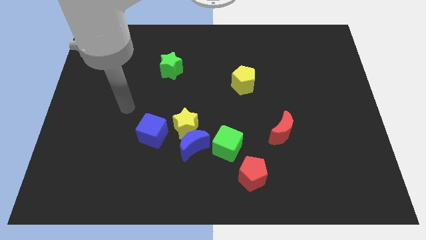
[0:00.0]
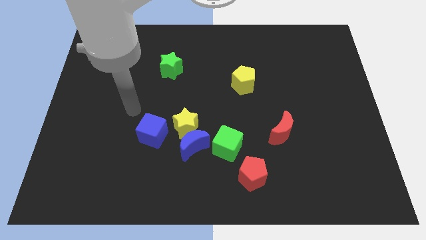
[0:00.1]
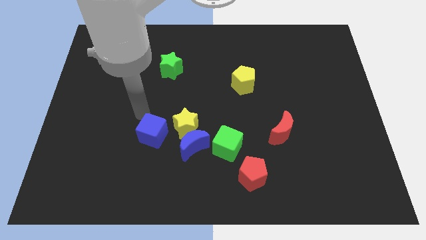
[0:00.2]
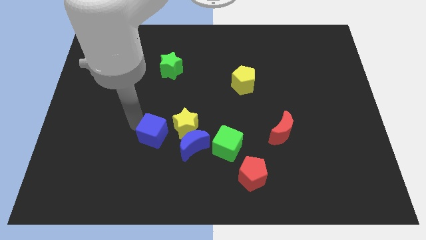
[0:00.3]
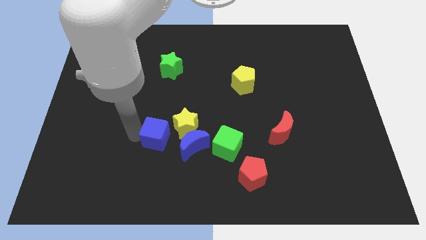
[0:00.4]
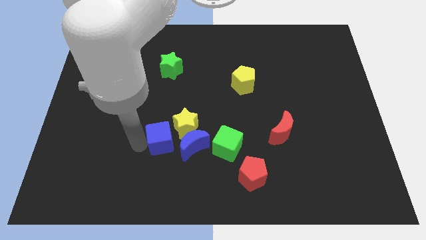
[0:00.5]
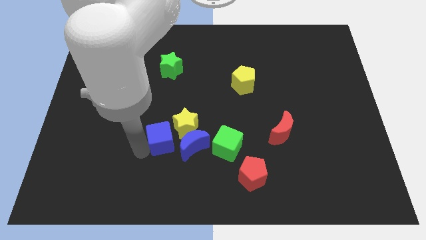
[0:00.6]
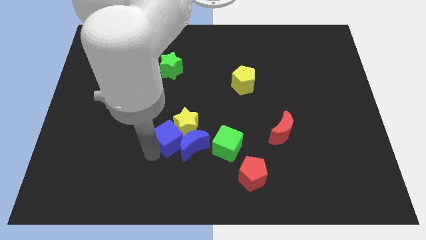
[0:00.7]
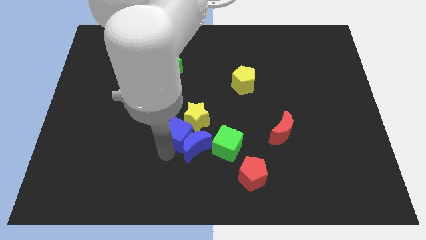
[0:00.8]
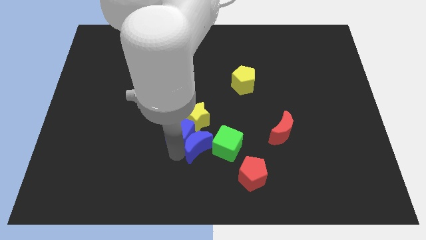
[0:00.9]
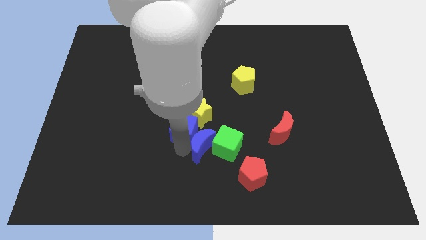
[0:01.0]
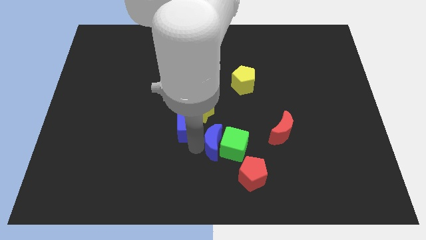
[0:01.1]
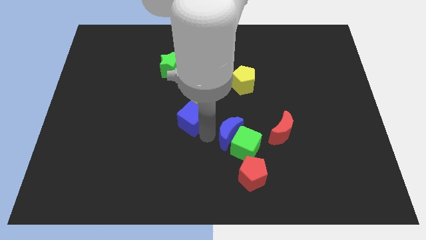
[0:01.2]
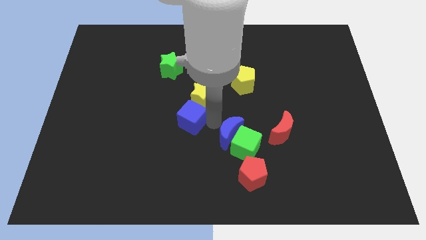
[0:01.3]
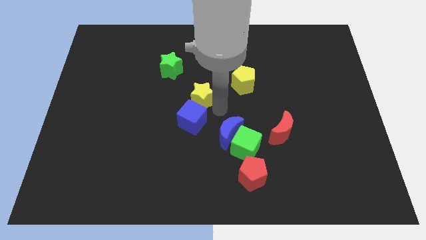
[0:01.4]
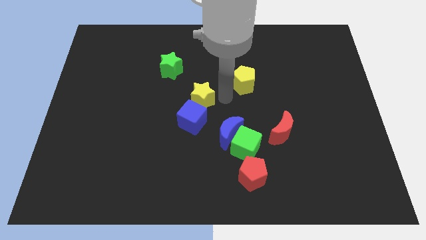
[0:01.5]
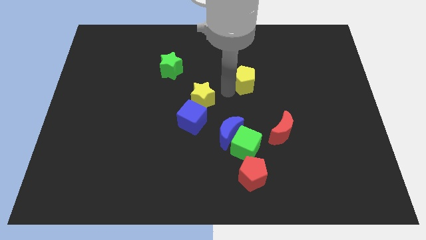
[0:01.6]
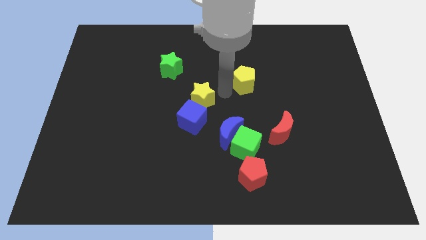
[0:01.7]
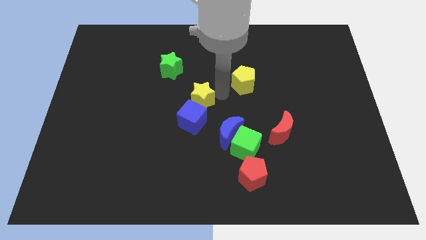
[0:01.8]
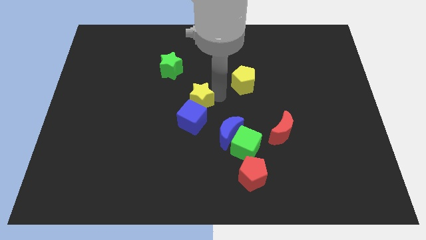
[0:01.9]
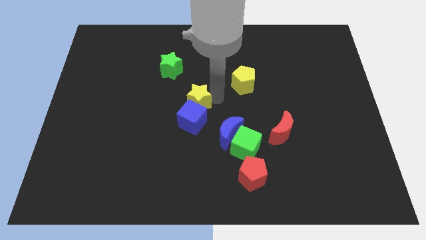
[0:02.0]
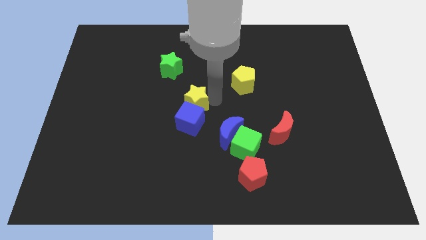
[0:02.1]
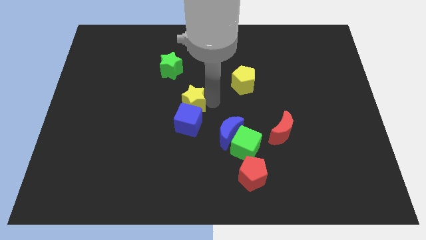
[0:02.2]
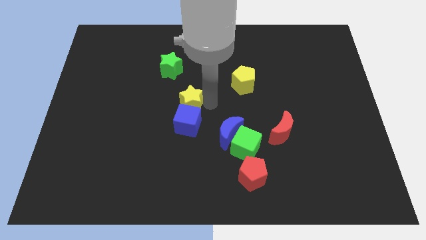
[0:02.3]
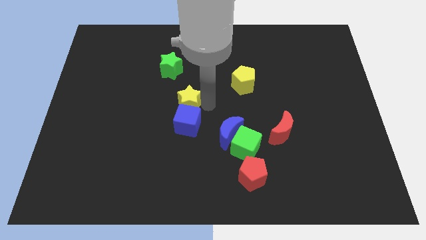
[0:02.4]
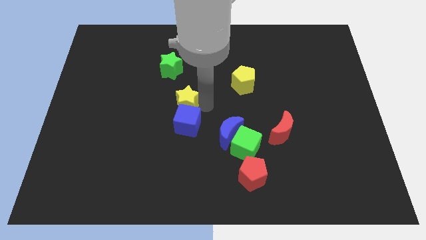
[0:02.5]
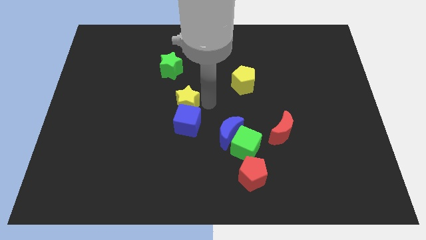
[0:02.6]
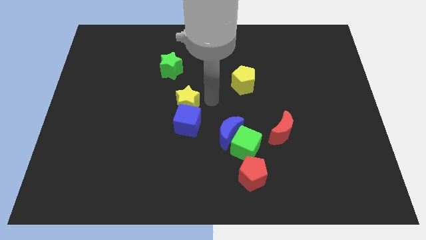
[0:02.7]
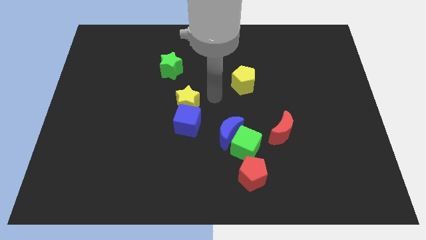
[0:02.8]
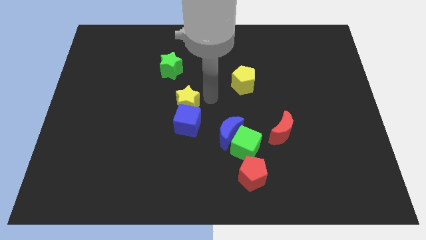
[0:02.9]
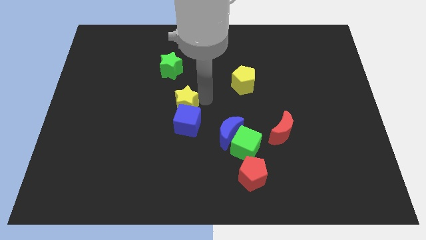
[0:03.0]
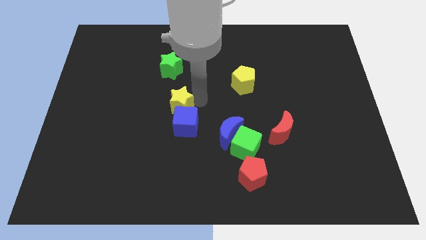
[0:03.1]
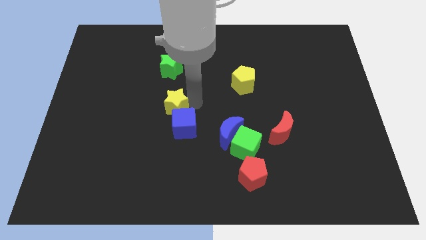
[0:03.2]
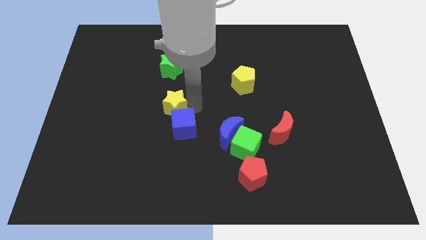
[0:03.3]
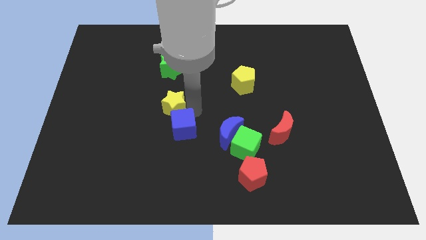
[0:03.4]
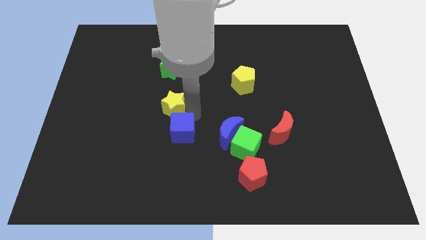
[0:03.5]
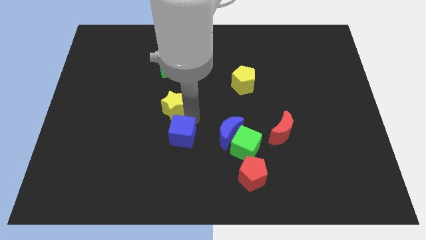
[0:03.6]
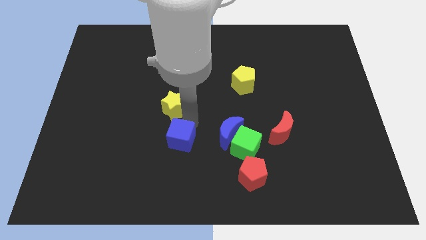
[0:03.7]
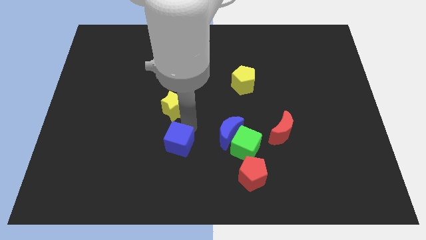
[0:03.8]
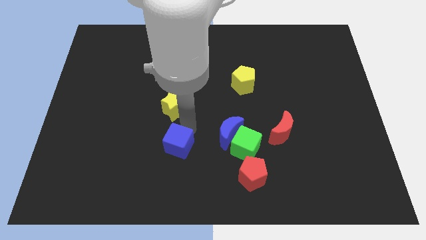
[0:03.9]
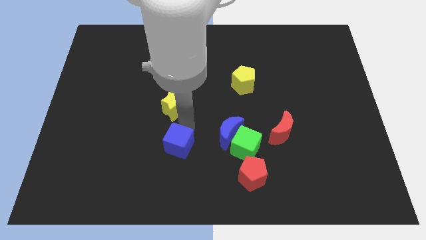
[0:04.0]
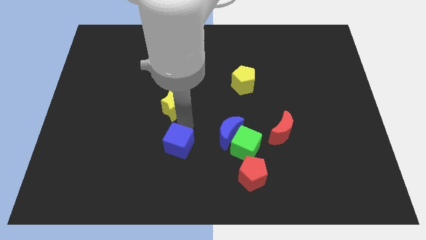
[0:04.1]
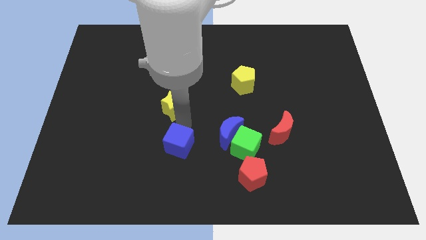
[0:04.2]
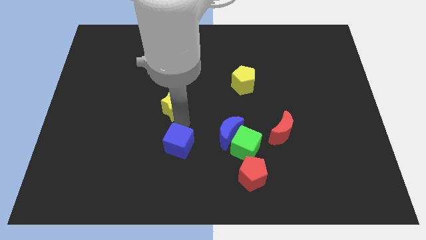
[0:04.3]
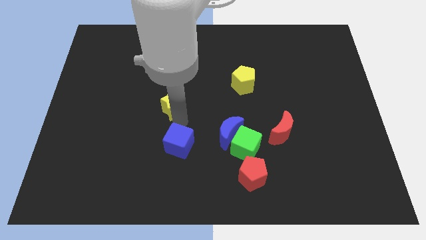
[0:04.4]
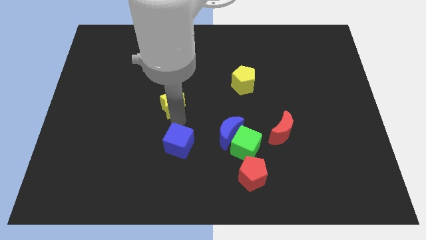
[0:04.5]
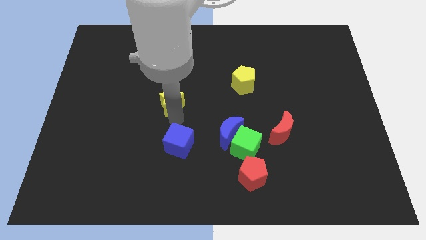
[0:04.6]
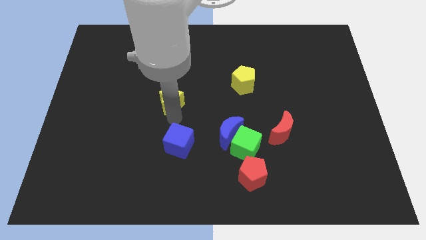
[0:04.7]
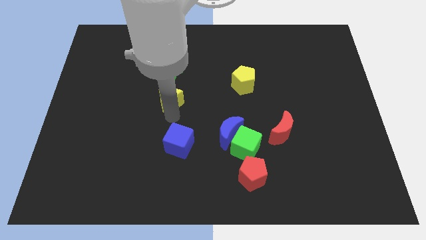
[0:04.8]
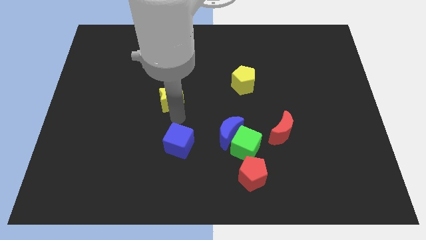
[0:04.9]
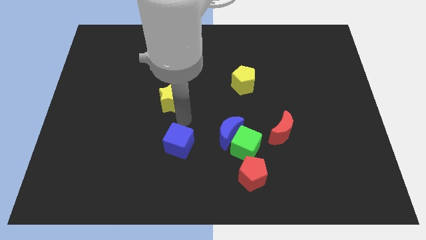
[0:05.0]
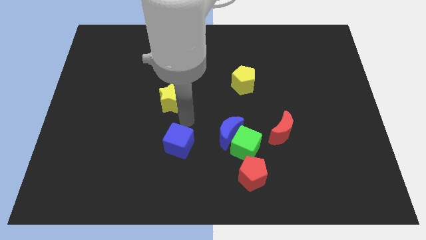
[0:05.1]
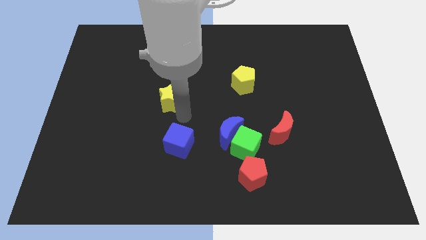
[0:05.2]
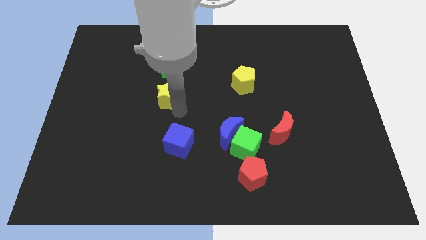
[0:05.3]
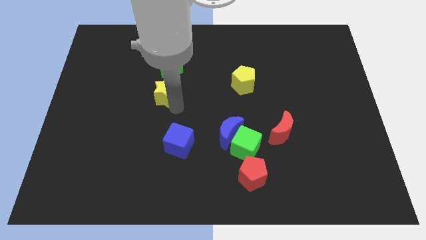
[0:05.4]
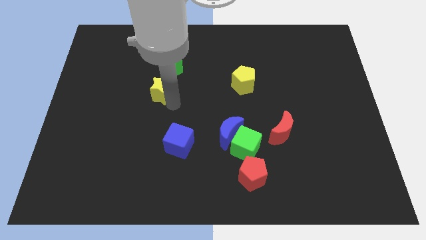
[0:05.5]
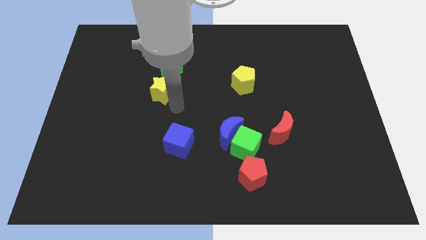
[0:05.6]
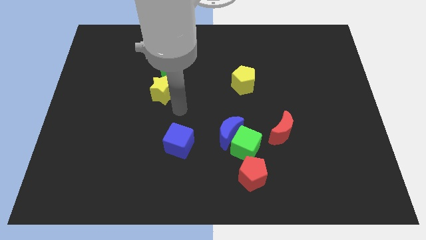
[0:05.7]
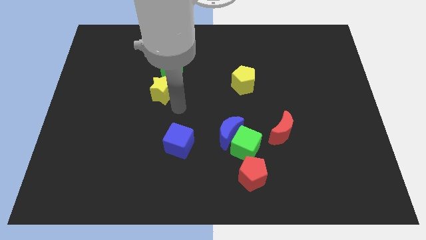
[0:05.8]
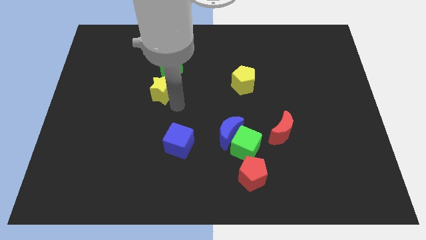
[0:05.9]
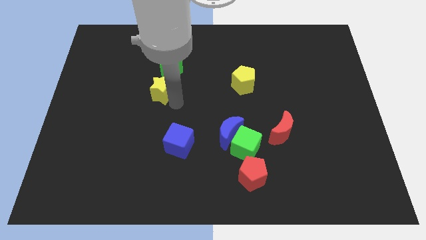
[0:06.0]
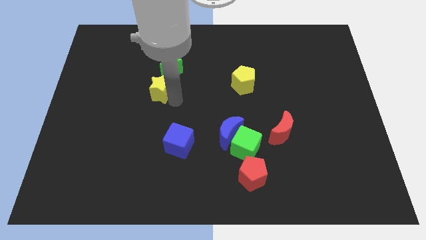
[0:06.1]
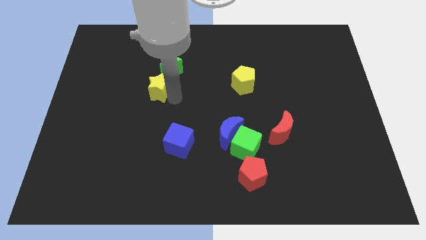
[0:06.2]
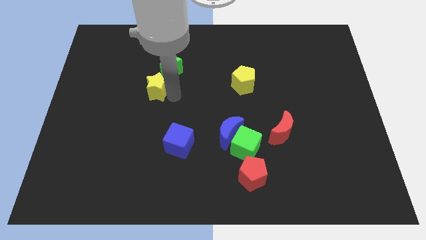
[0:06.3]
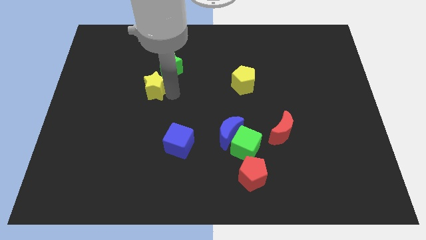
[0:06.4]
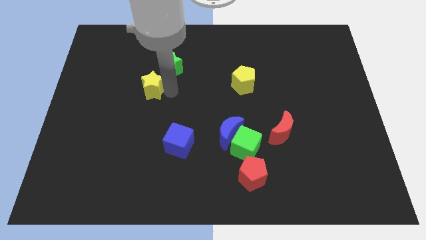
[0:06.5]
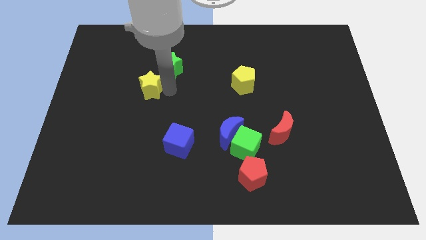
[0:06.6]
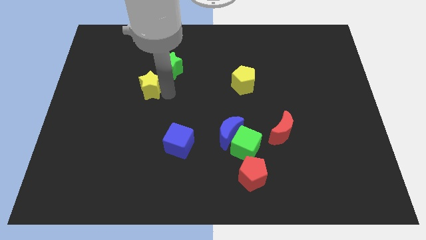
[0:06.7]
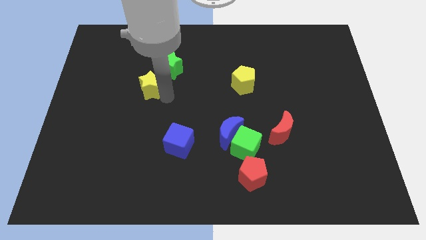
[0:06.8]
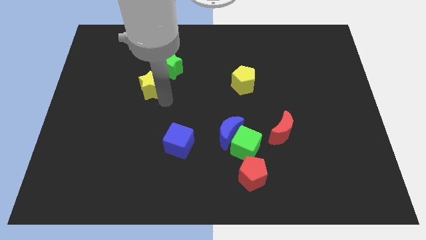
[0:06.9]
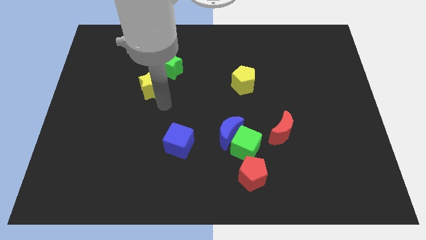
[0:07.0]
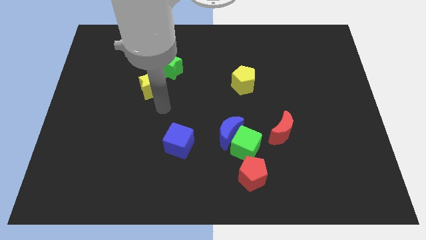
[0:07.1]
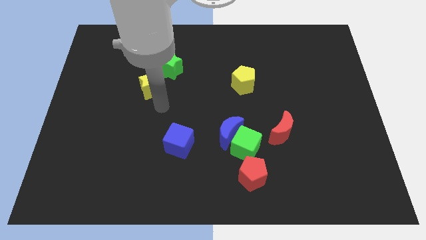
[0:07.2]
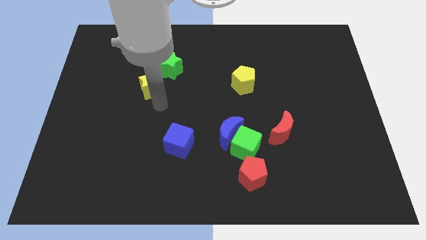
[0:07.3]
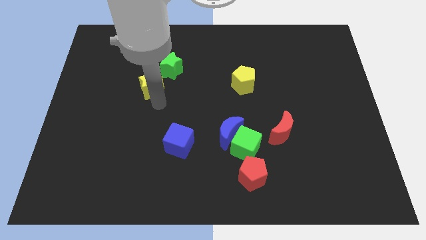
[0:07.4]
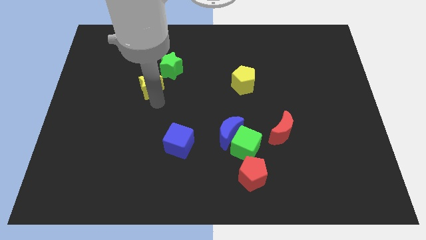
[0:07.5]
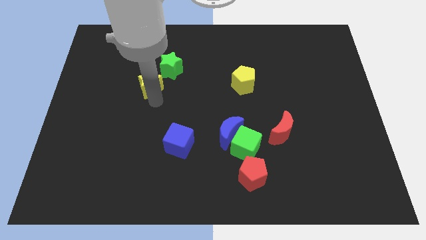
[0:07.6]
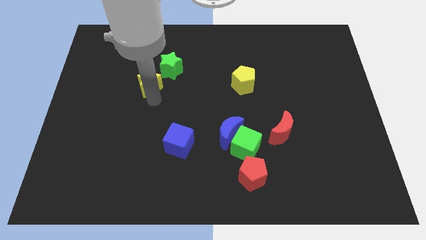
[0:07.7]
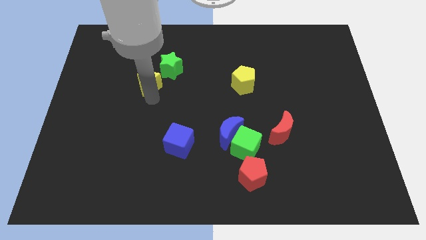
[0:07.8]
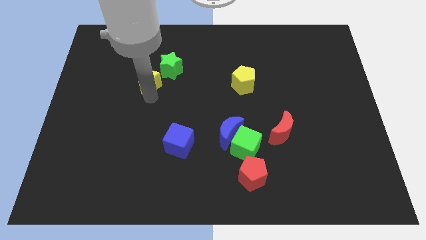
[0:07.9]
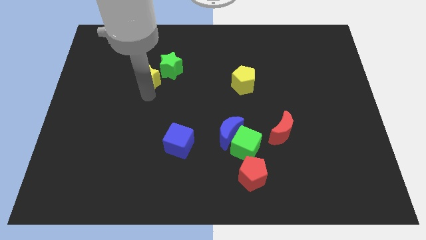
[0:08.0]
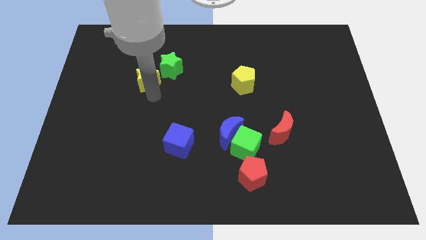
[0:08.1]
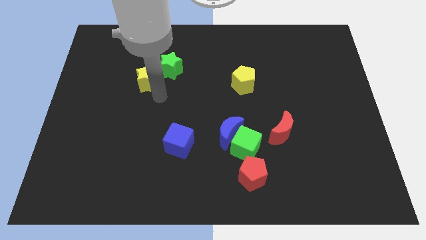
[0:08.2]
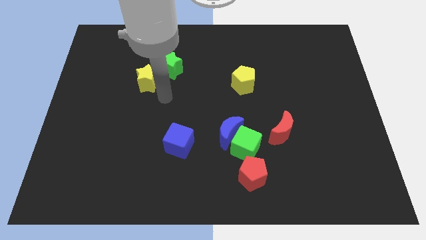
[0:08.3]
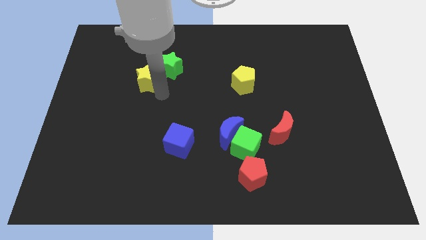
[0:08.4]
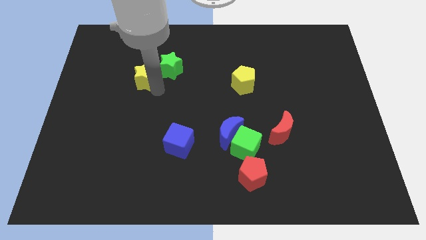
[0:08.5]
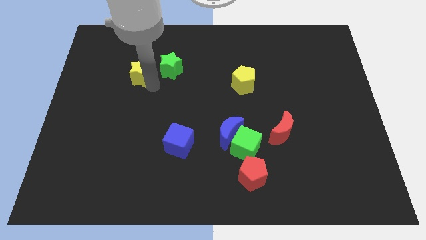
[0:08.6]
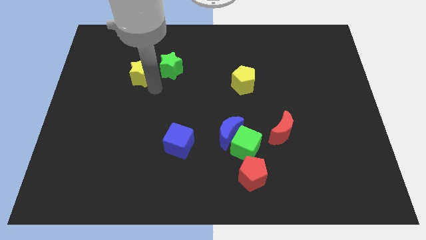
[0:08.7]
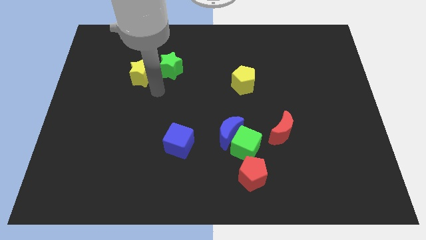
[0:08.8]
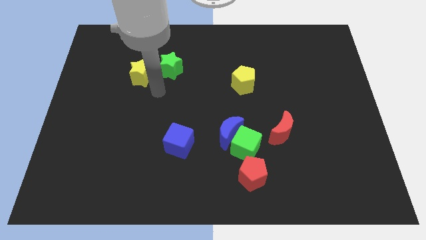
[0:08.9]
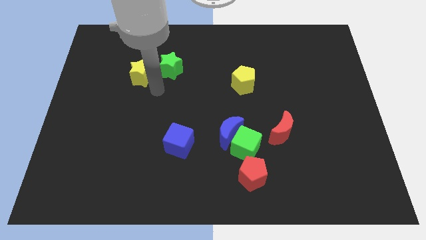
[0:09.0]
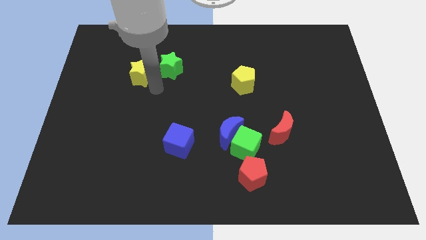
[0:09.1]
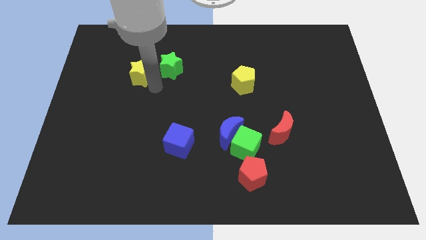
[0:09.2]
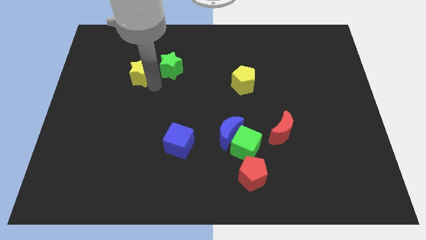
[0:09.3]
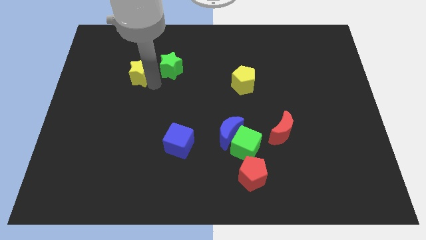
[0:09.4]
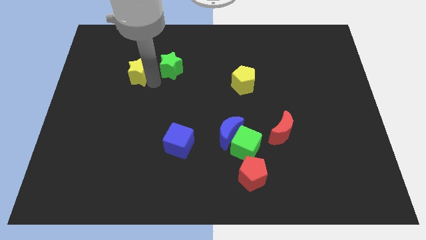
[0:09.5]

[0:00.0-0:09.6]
move the yellow star up and to the left diagonally
